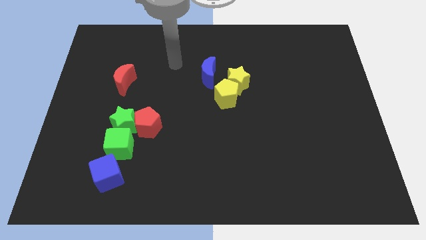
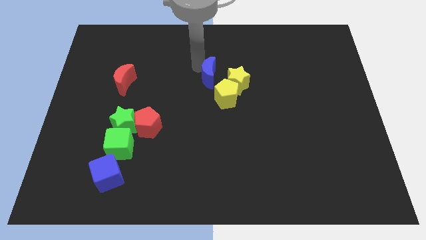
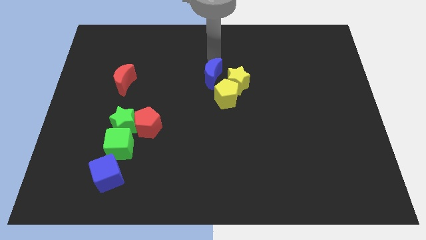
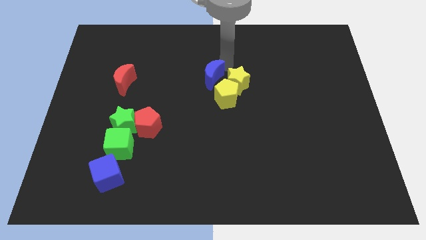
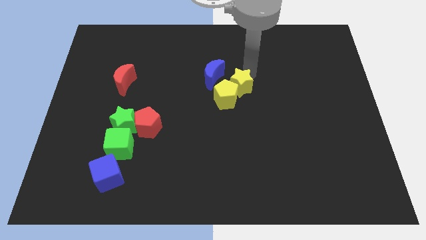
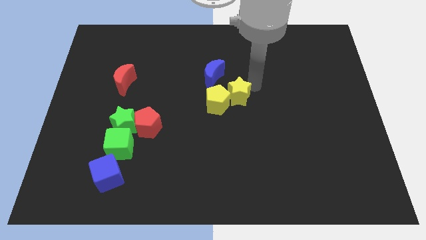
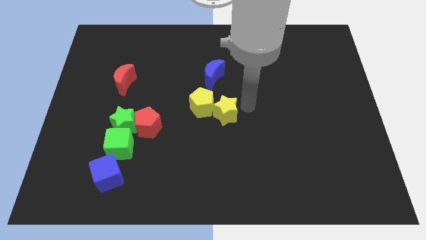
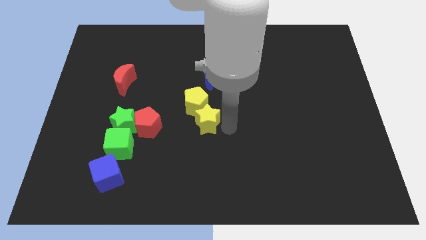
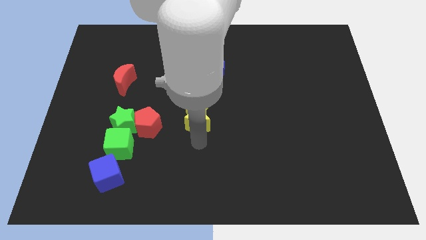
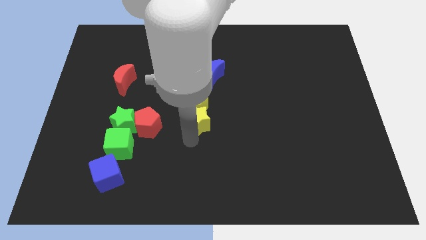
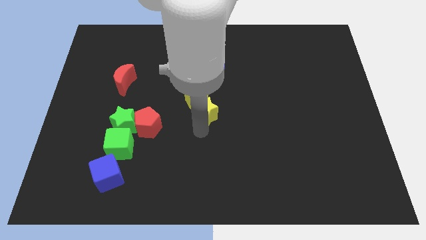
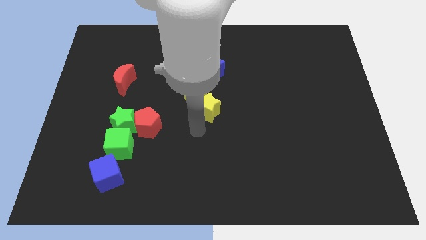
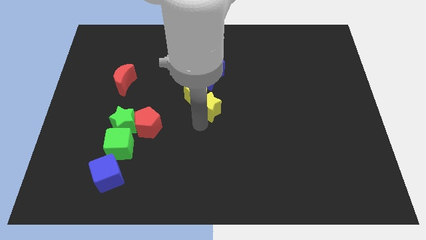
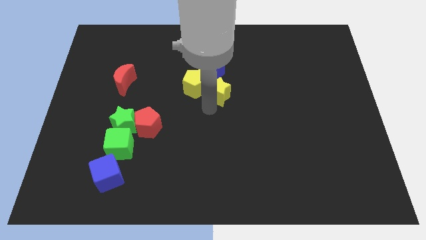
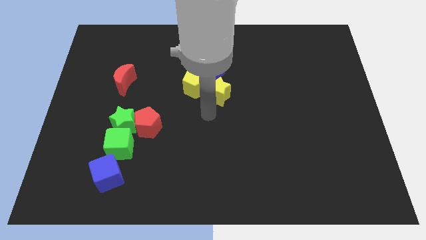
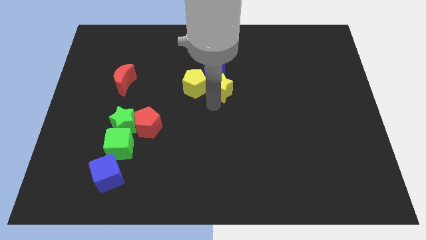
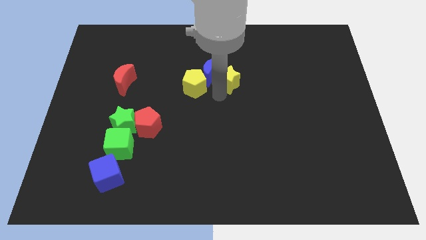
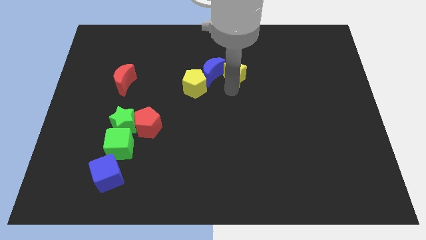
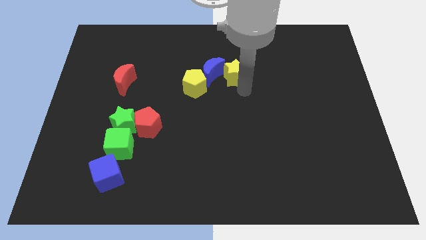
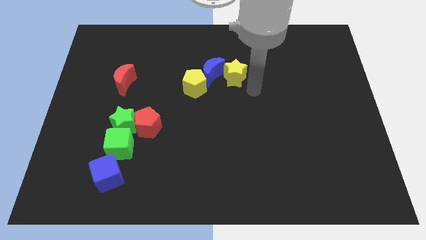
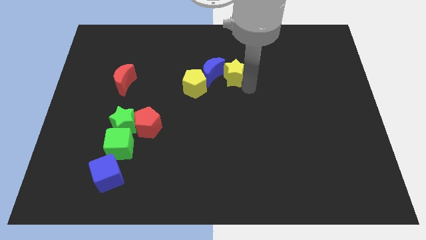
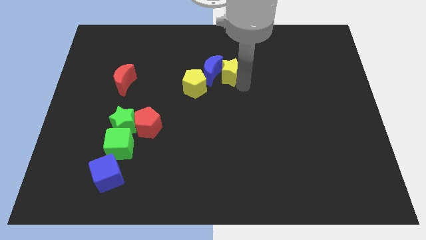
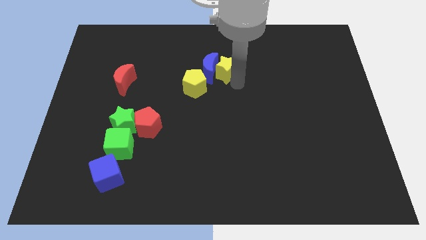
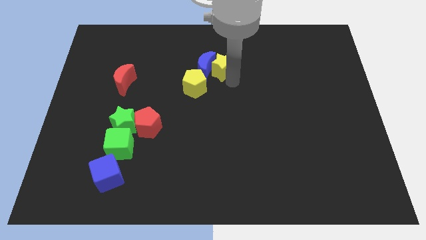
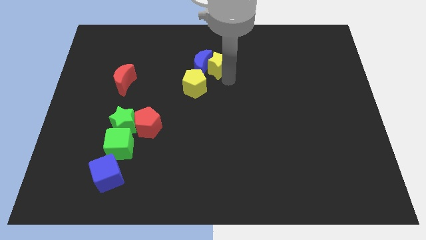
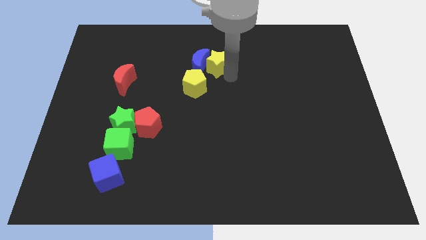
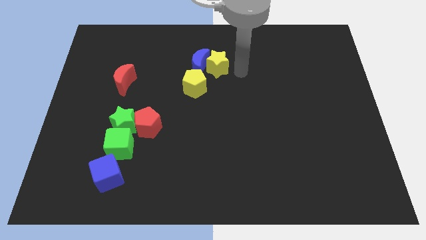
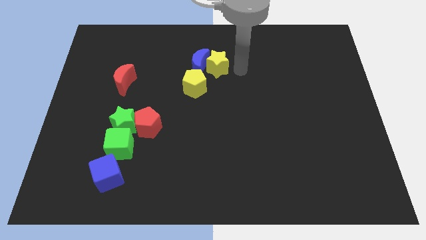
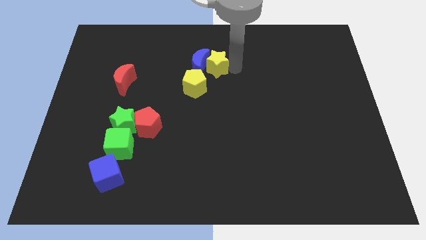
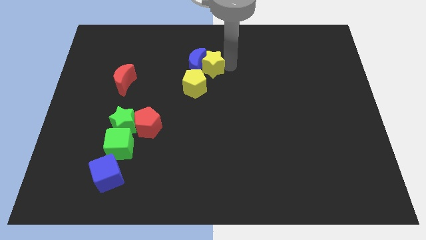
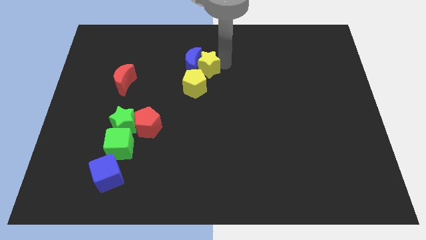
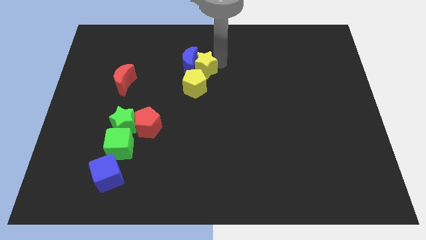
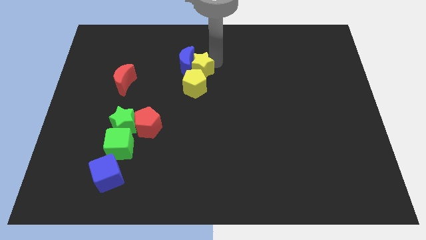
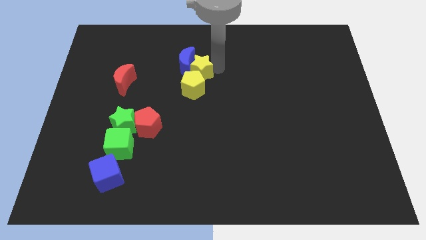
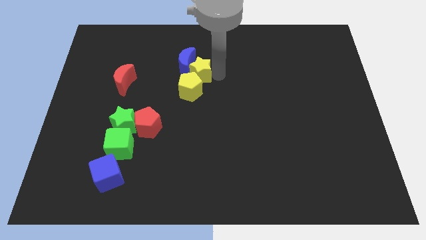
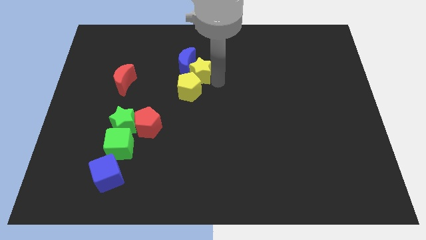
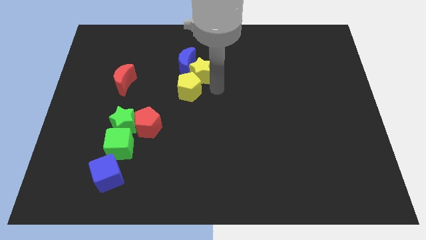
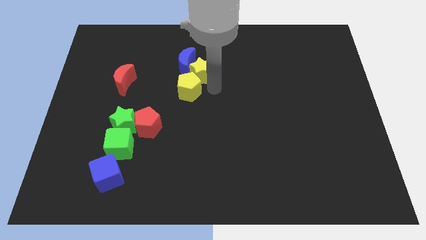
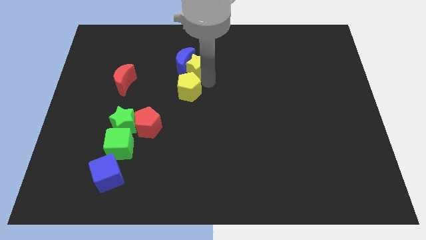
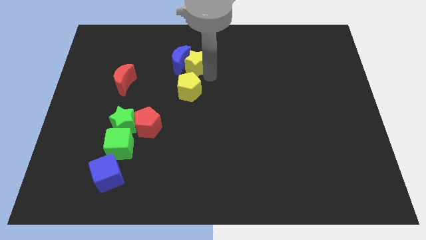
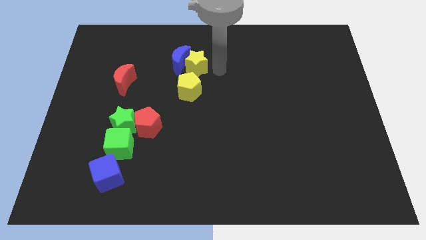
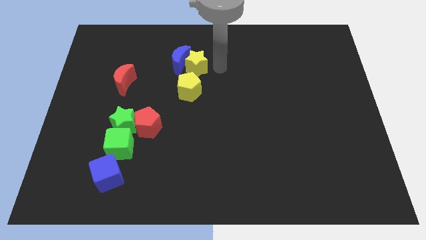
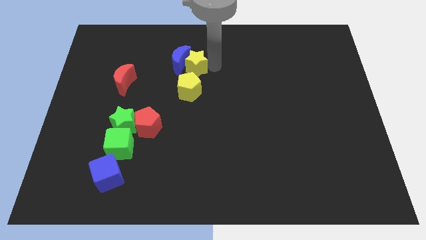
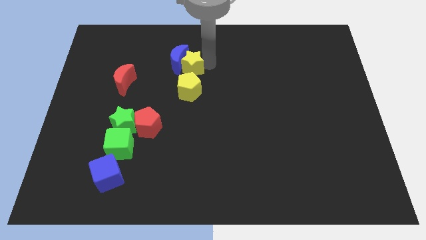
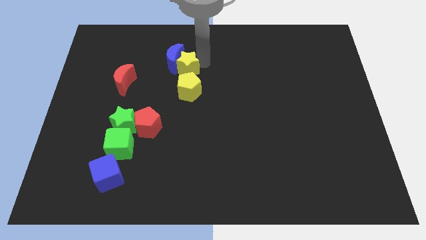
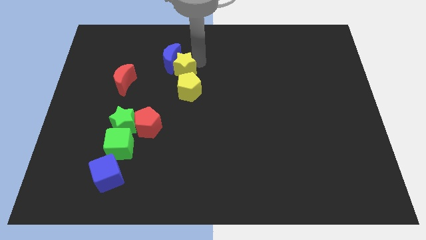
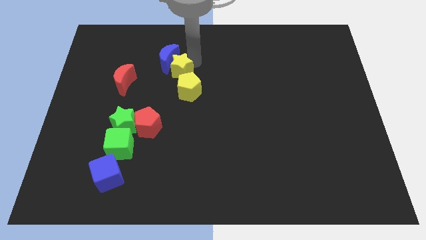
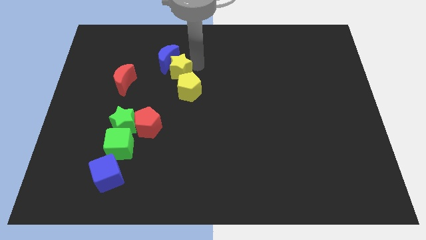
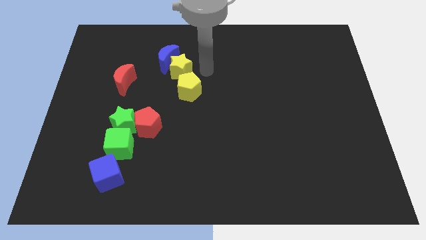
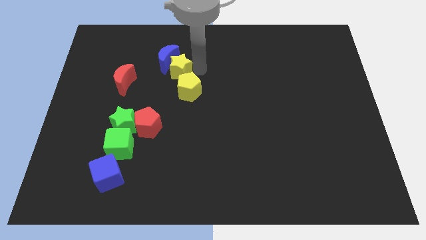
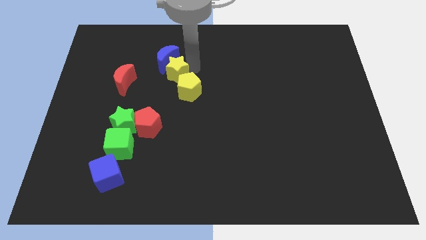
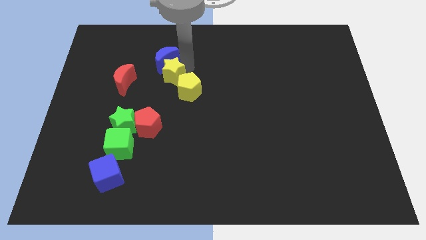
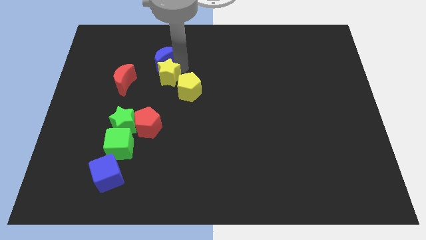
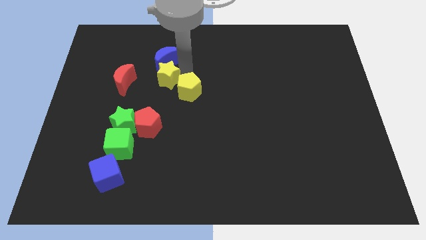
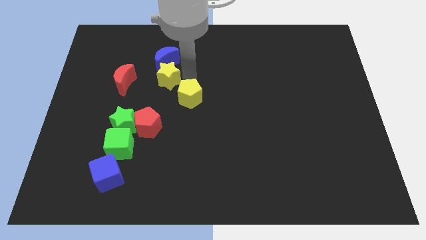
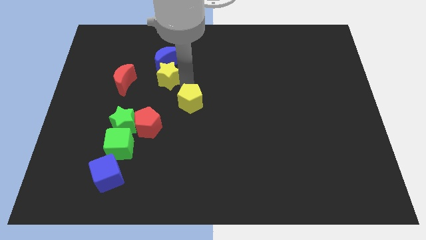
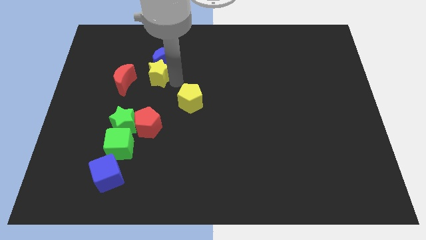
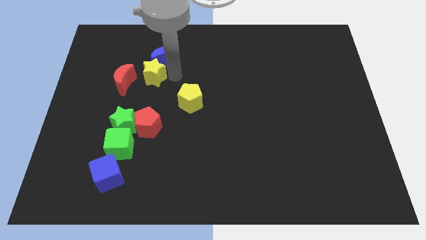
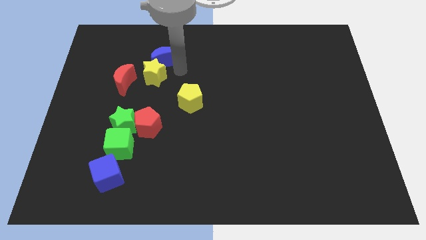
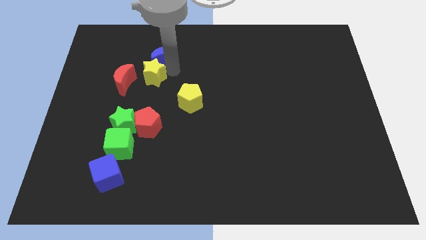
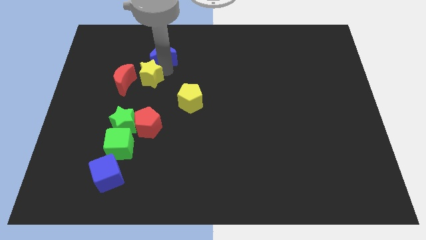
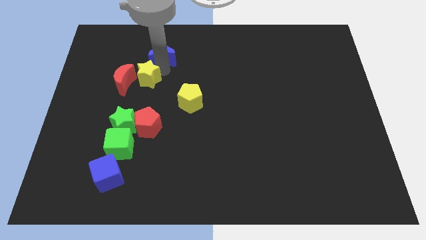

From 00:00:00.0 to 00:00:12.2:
put the yellow star next to the red moon

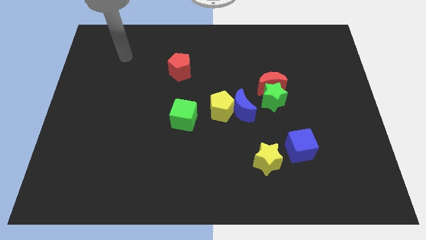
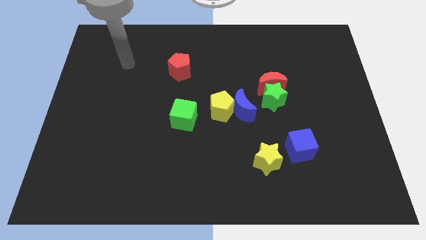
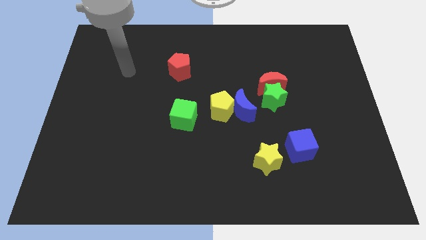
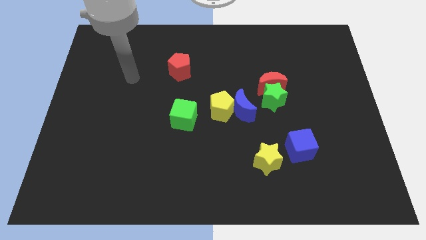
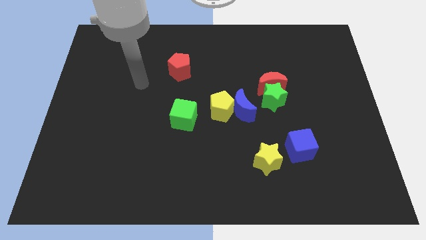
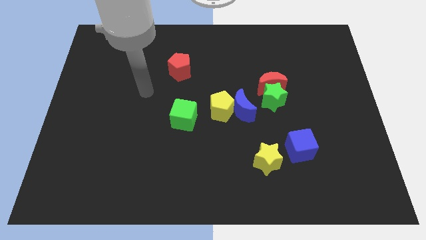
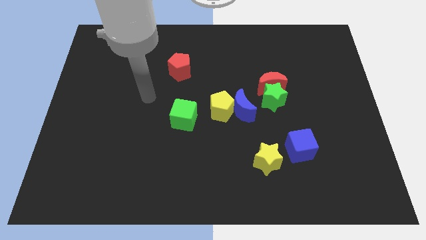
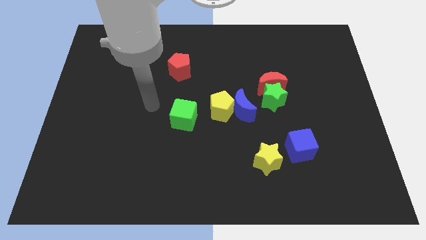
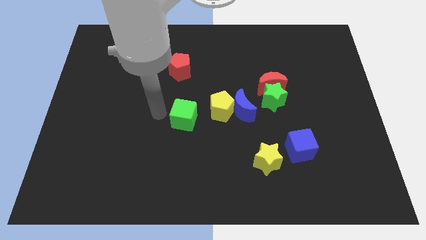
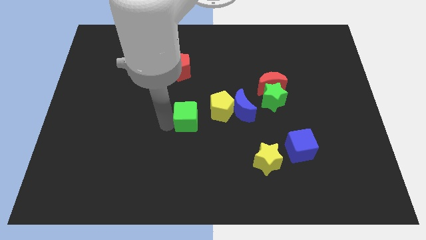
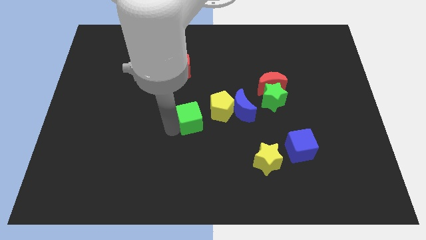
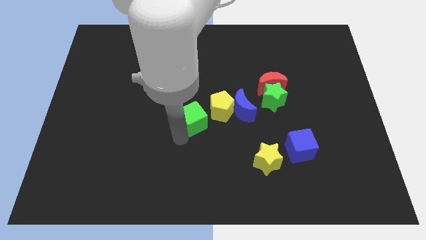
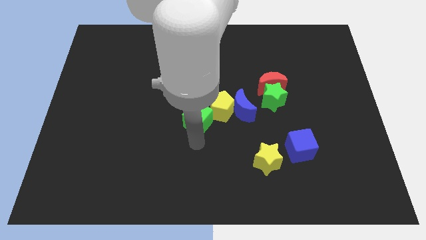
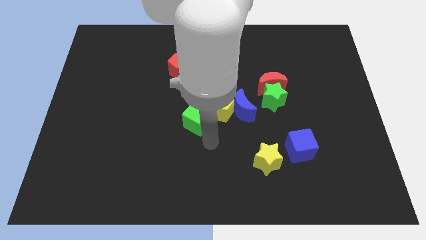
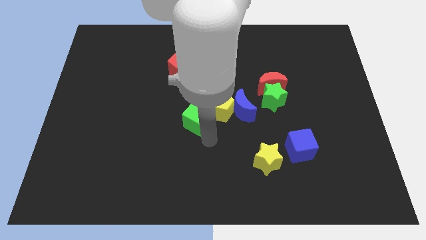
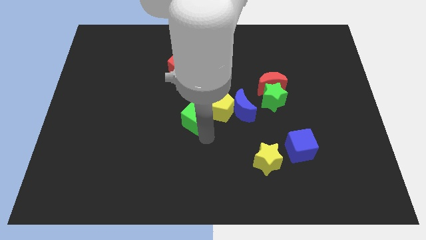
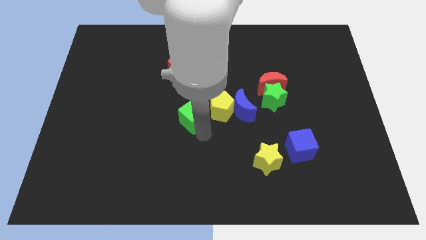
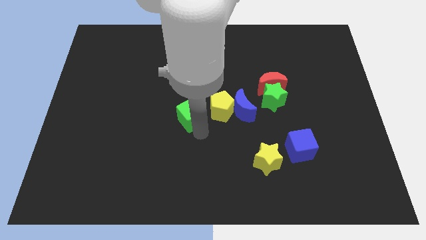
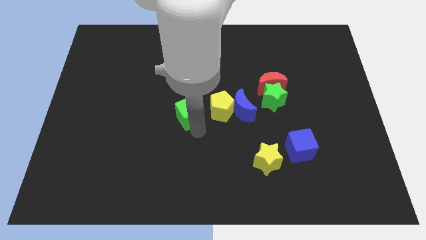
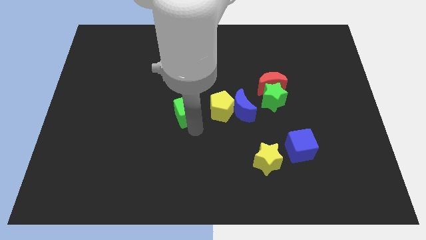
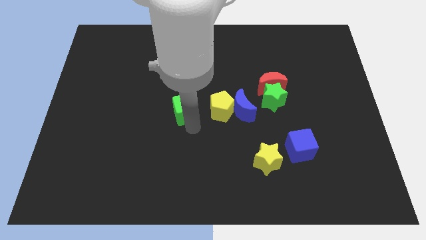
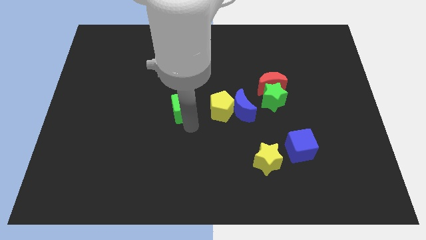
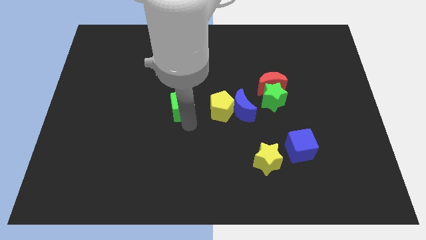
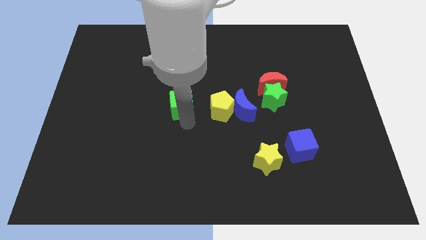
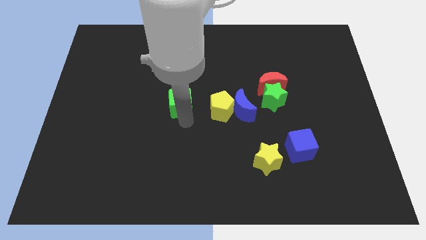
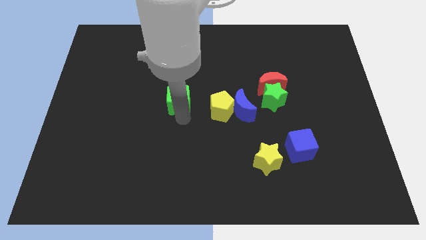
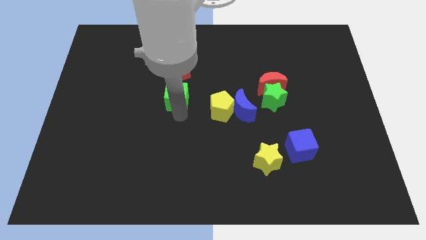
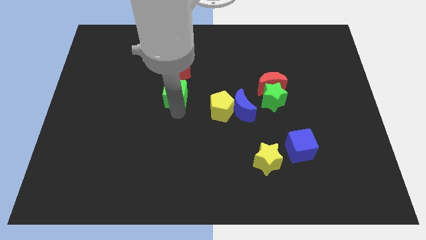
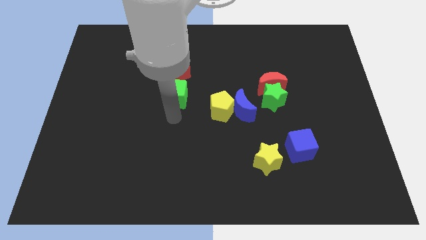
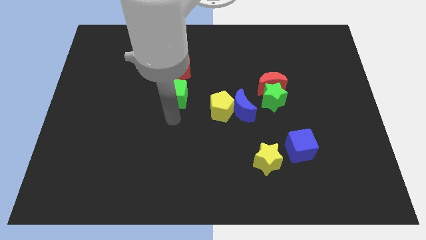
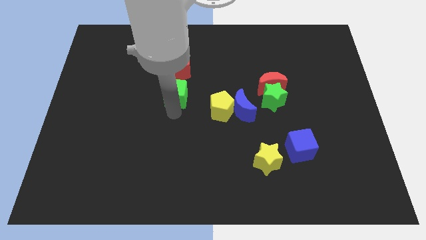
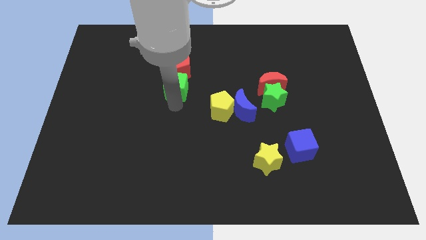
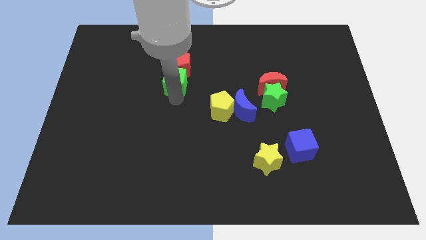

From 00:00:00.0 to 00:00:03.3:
put the green cube towards the red pentagon
